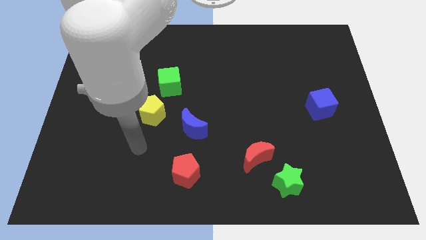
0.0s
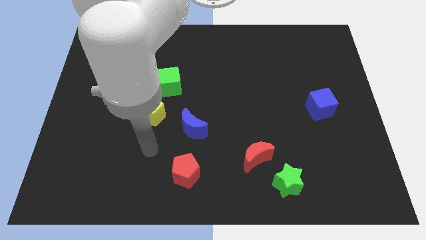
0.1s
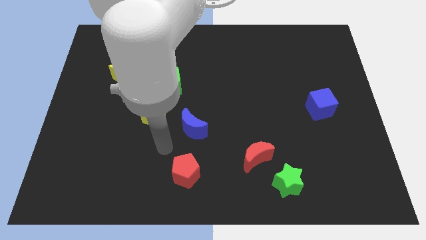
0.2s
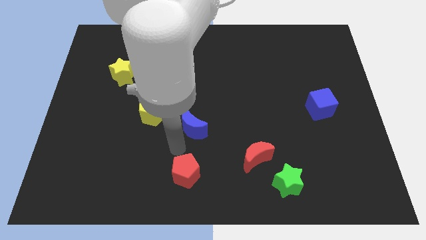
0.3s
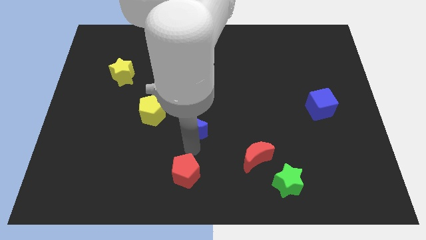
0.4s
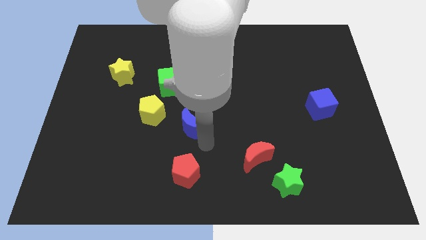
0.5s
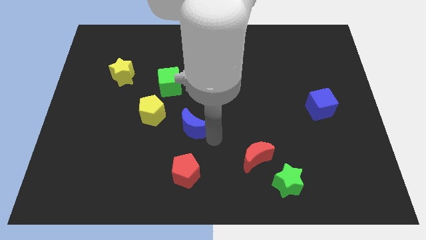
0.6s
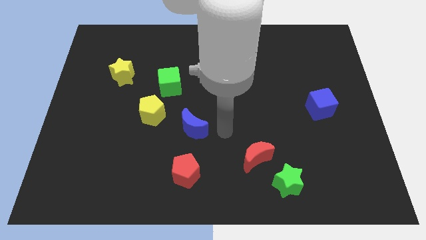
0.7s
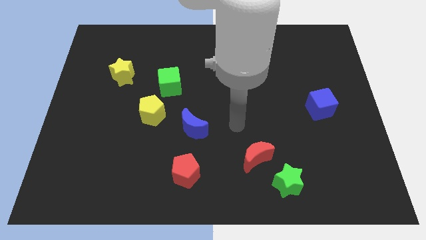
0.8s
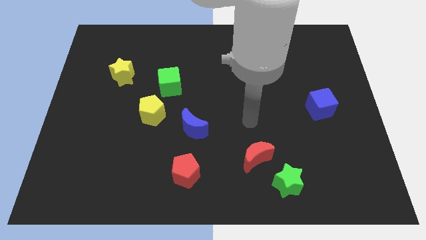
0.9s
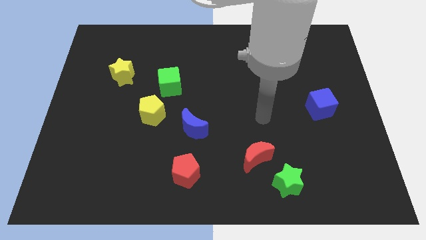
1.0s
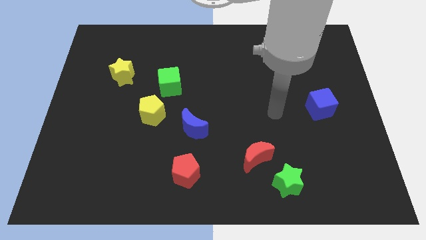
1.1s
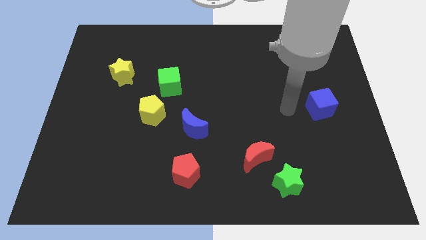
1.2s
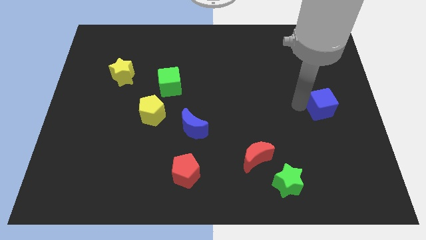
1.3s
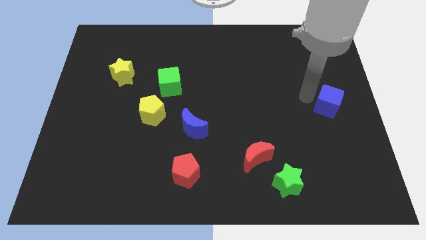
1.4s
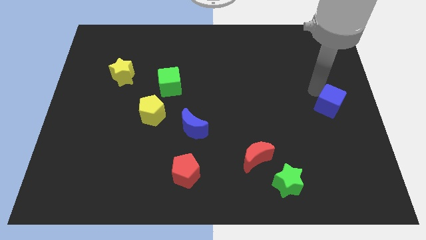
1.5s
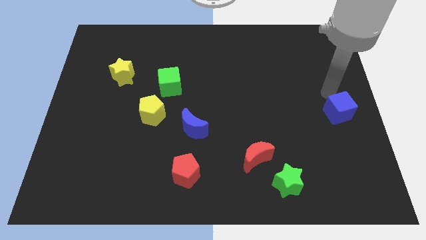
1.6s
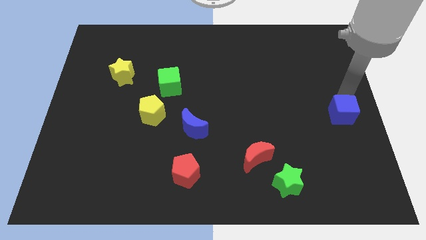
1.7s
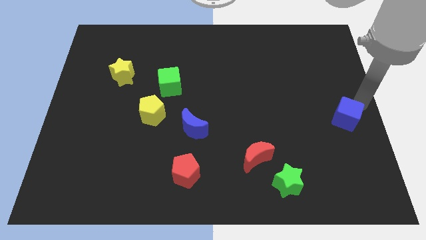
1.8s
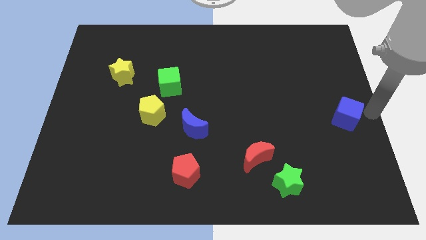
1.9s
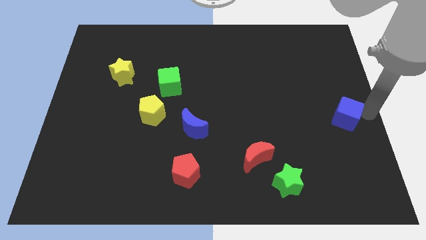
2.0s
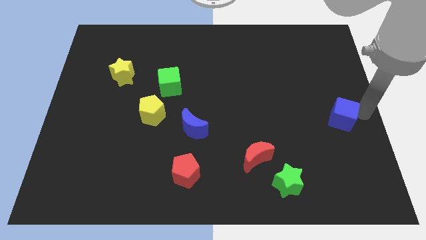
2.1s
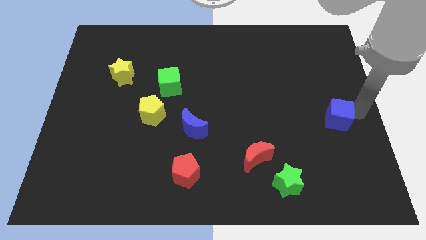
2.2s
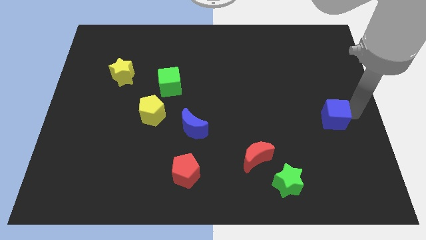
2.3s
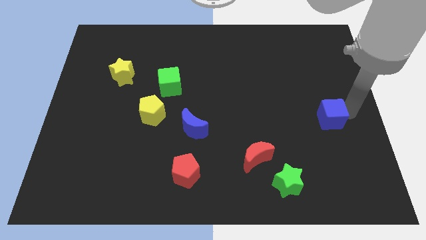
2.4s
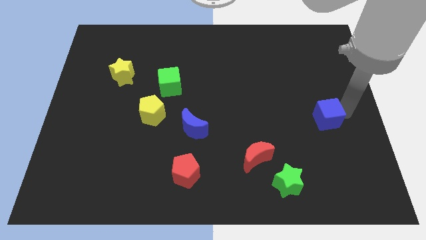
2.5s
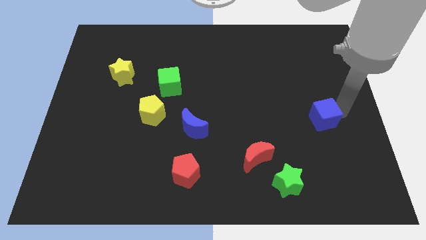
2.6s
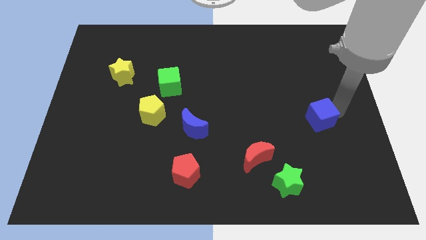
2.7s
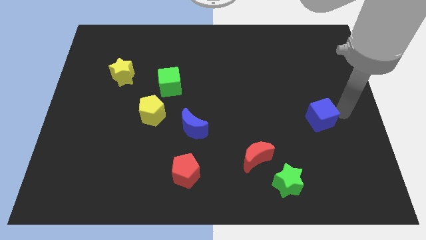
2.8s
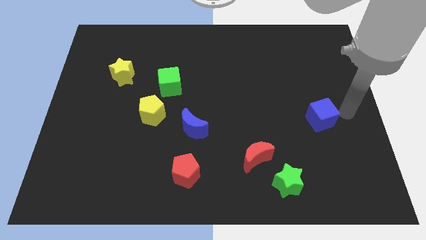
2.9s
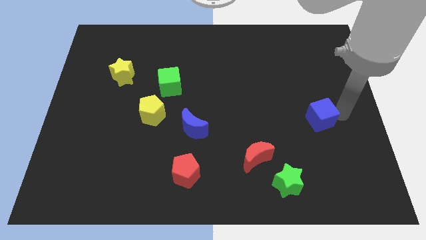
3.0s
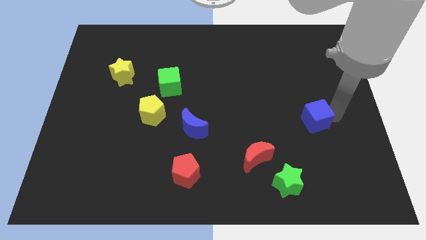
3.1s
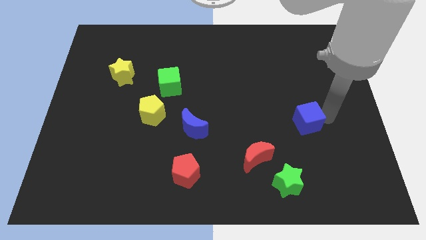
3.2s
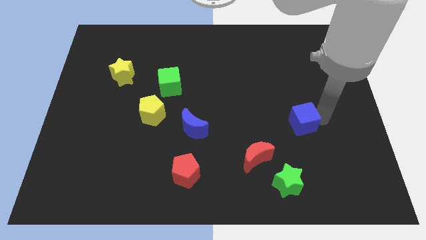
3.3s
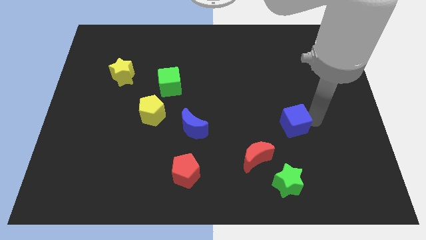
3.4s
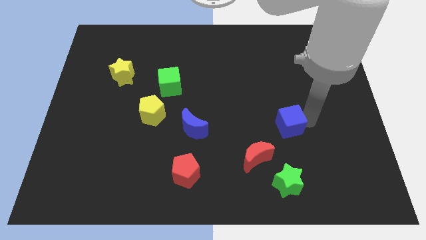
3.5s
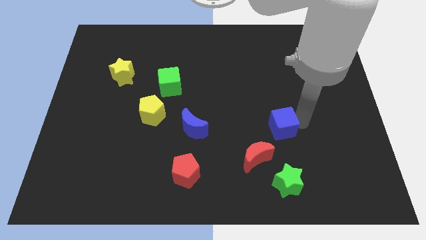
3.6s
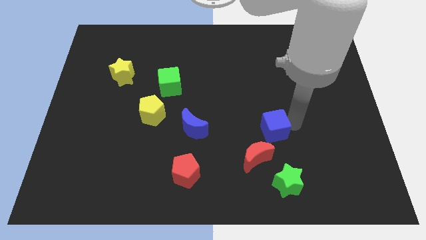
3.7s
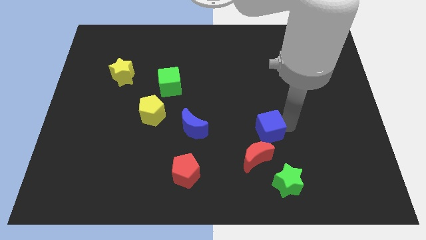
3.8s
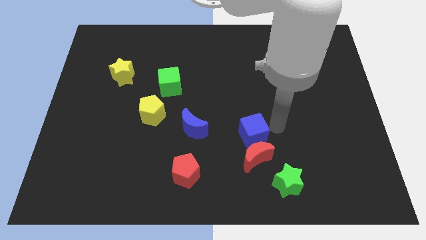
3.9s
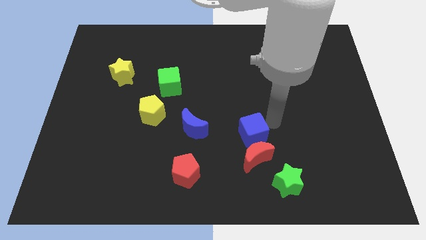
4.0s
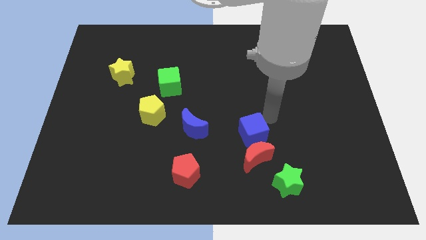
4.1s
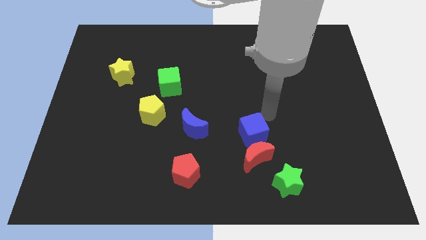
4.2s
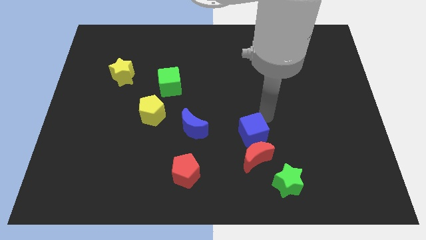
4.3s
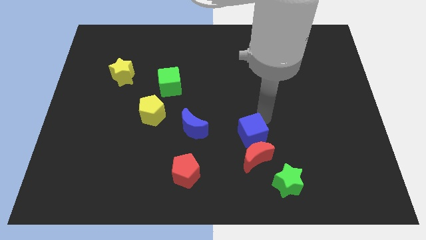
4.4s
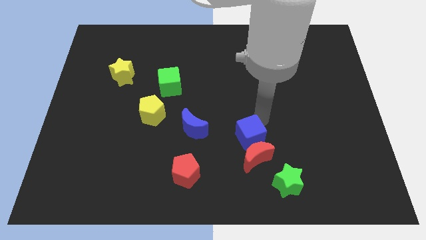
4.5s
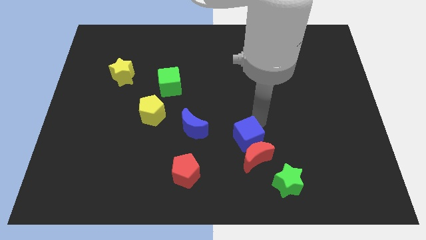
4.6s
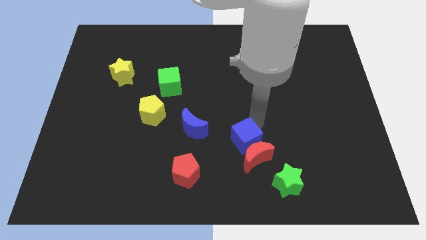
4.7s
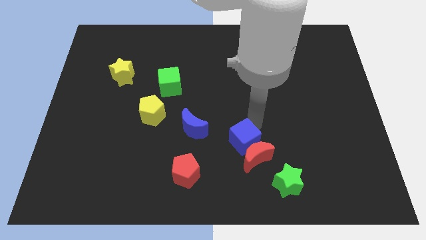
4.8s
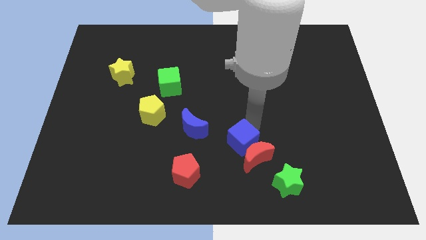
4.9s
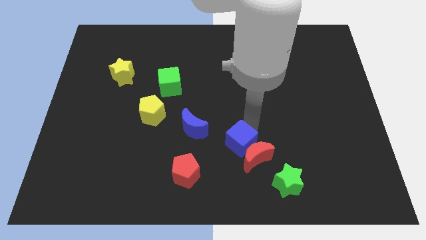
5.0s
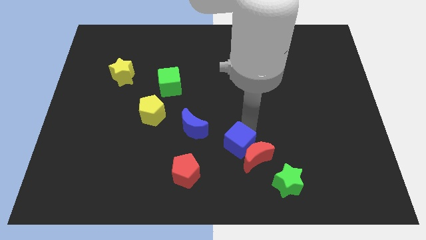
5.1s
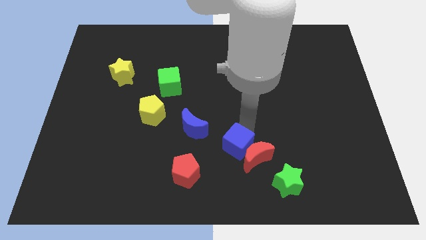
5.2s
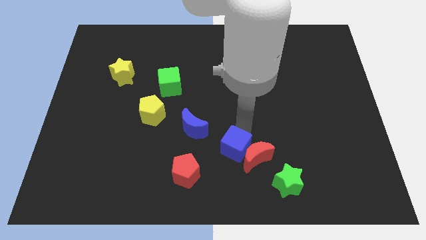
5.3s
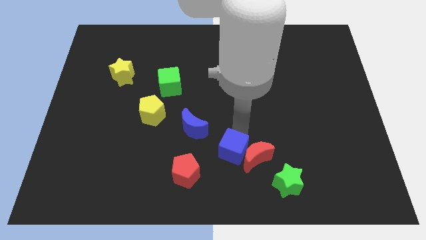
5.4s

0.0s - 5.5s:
put the blue cube diagonally down and to the left of the red moon

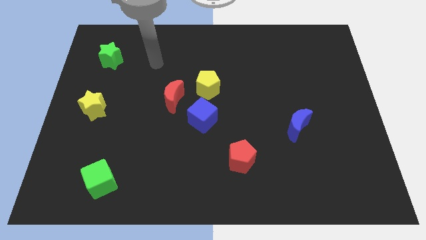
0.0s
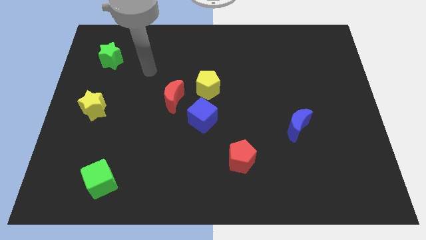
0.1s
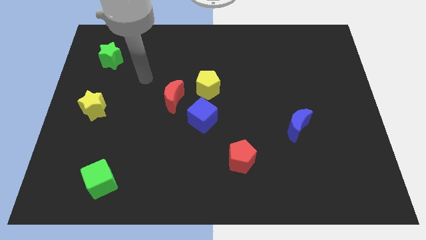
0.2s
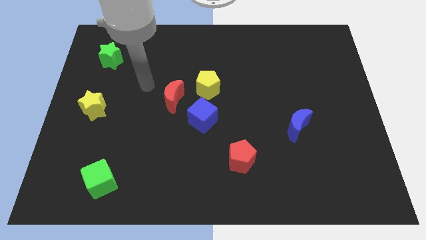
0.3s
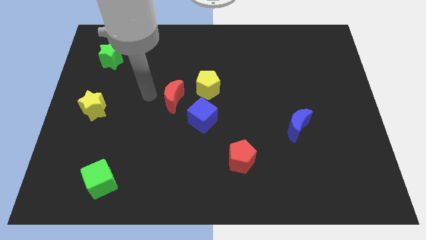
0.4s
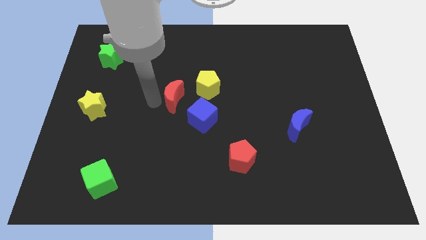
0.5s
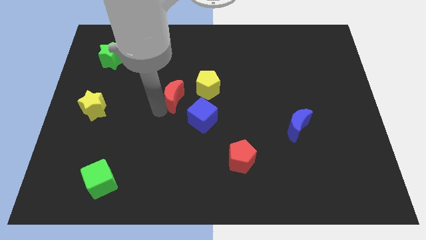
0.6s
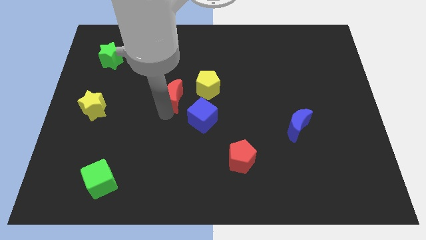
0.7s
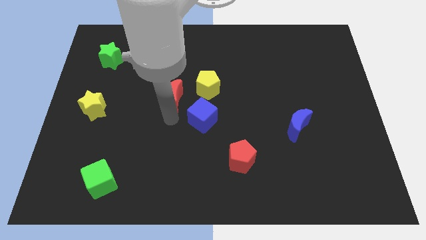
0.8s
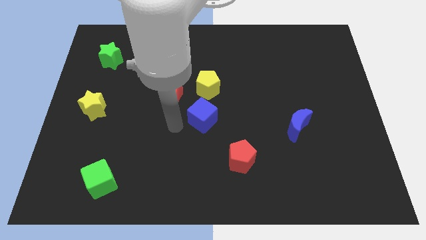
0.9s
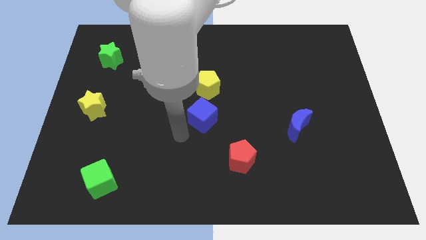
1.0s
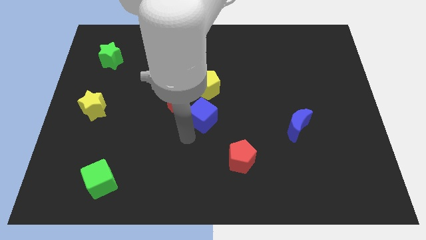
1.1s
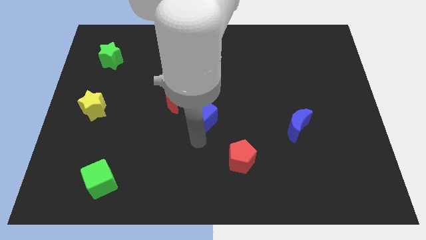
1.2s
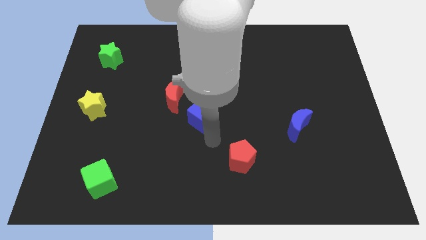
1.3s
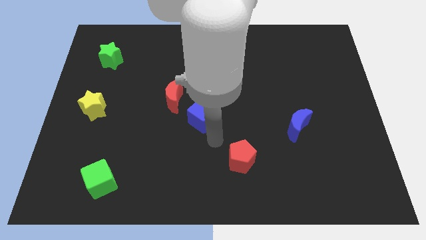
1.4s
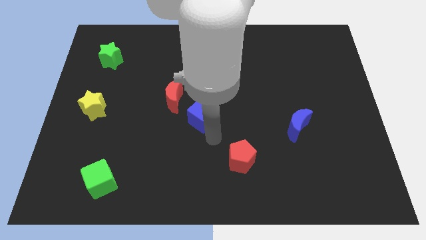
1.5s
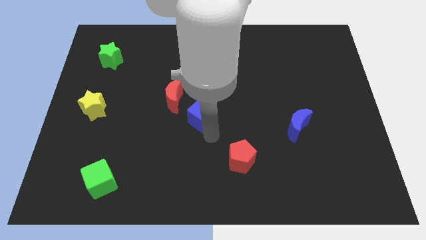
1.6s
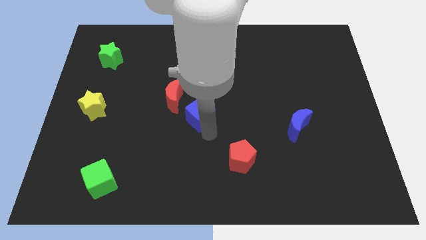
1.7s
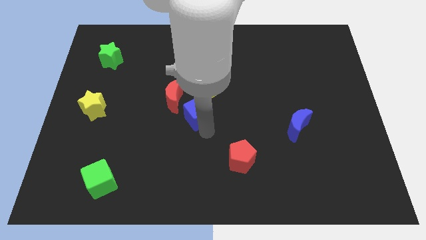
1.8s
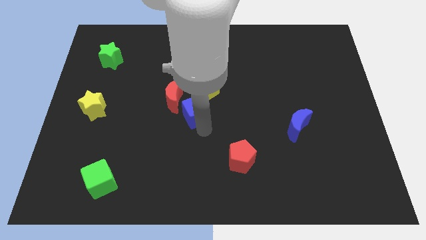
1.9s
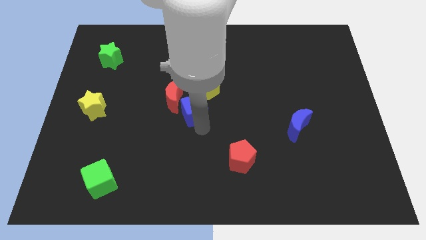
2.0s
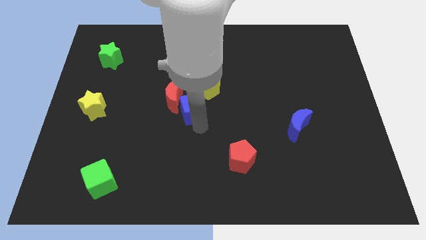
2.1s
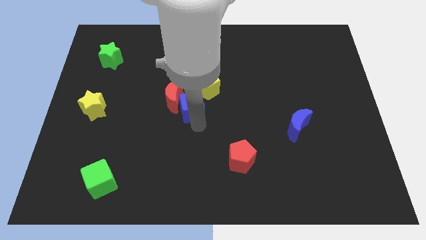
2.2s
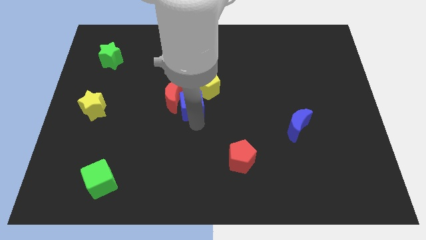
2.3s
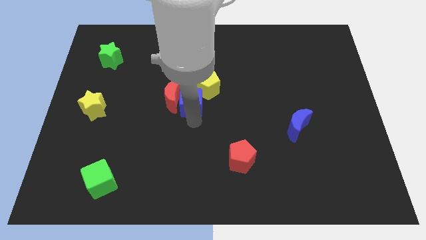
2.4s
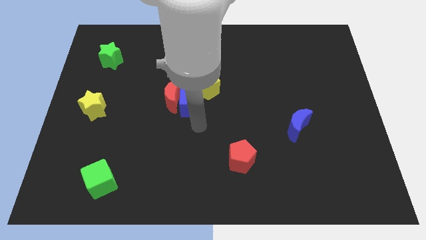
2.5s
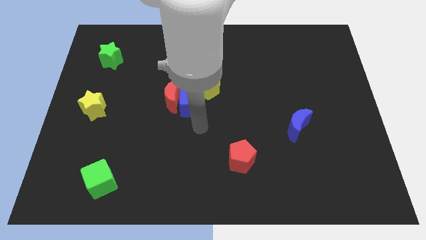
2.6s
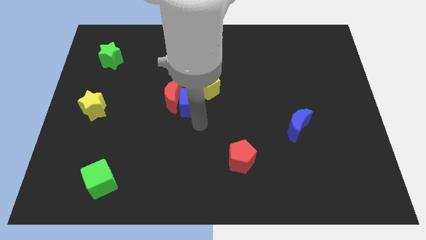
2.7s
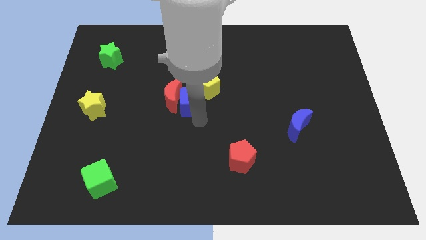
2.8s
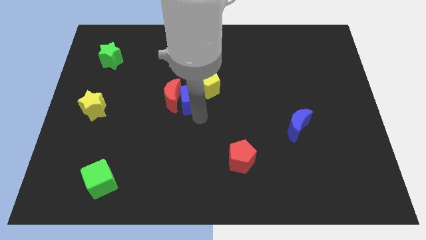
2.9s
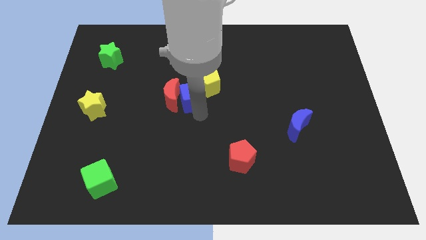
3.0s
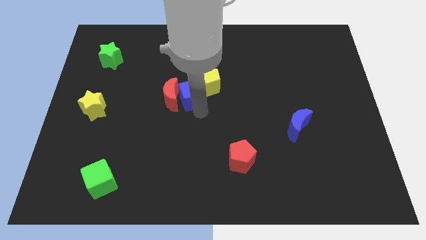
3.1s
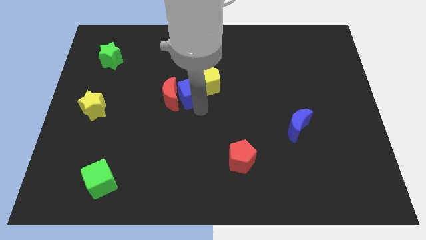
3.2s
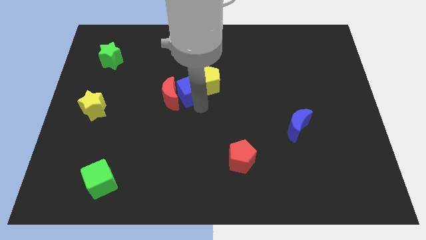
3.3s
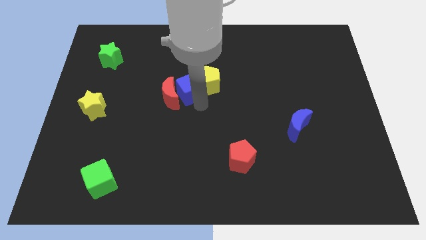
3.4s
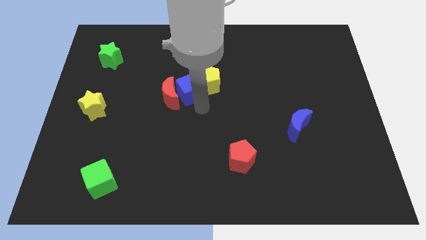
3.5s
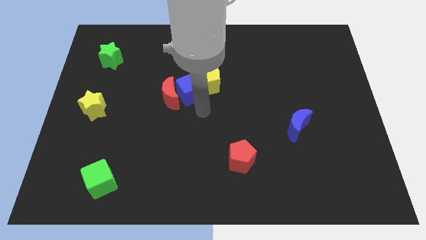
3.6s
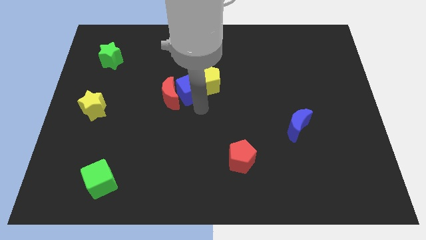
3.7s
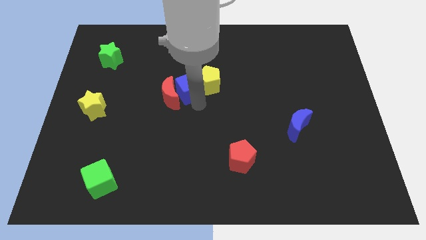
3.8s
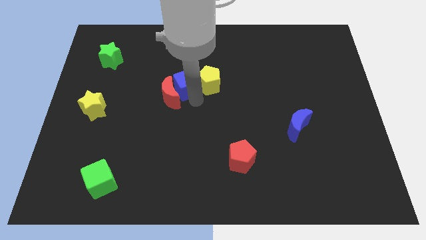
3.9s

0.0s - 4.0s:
slide the blue cube to the top of the red moon
